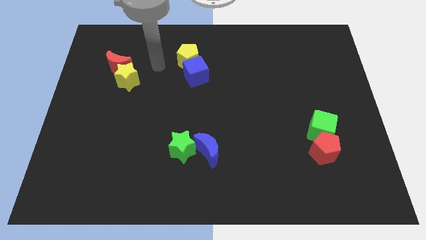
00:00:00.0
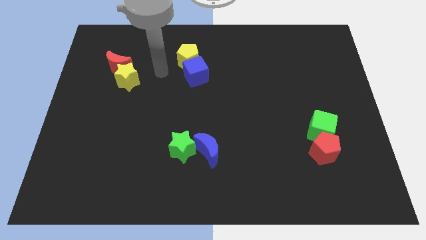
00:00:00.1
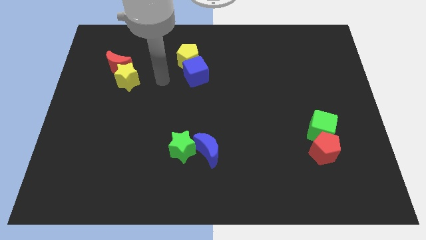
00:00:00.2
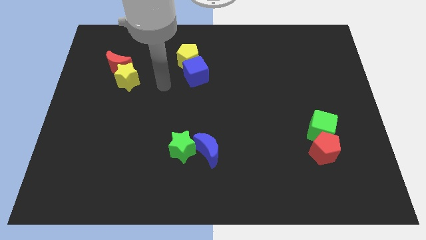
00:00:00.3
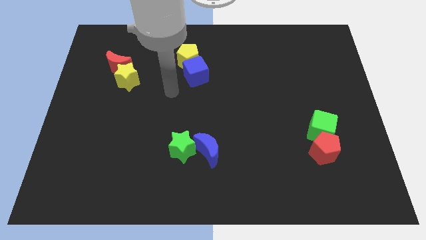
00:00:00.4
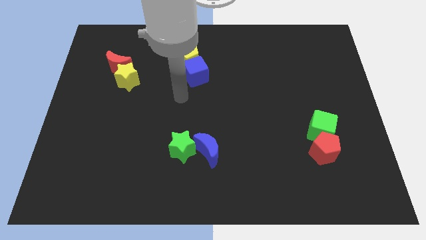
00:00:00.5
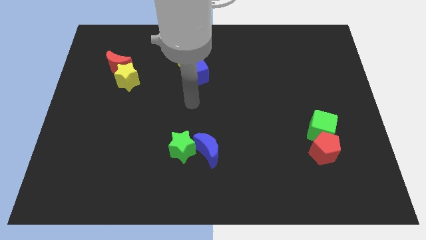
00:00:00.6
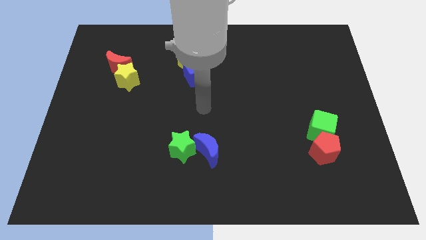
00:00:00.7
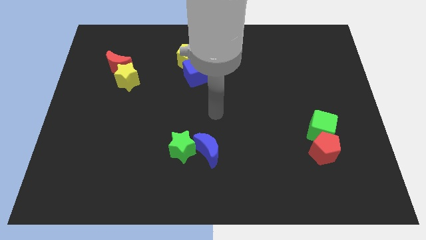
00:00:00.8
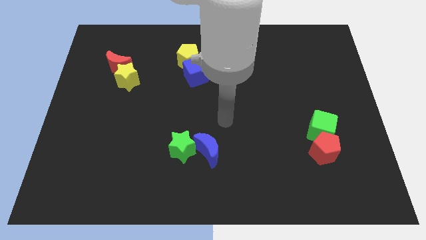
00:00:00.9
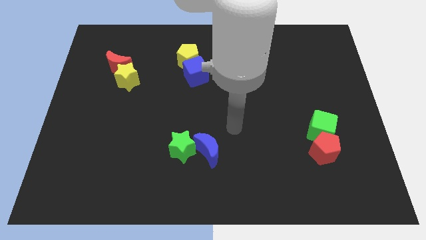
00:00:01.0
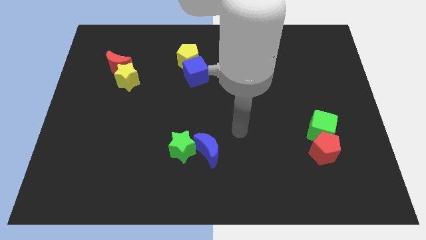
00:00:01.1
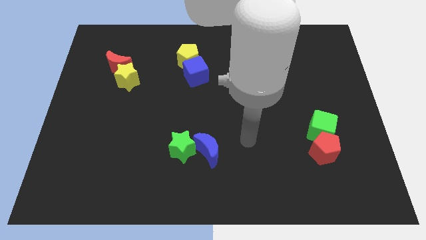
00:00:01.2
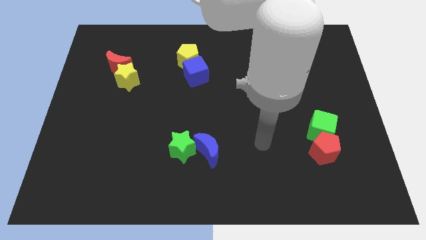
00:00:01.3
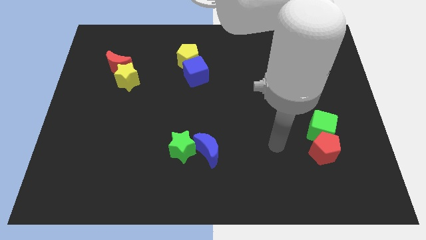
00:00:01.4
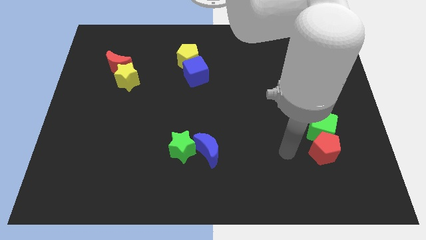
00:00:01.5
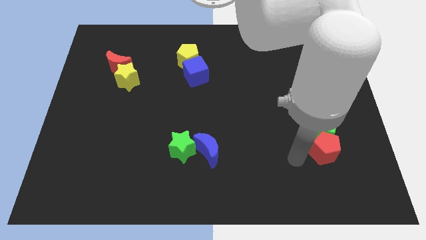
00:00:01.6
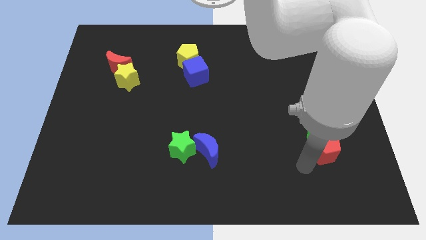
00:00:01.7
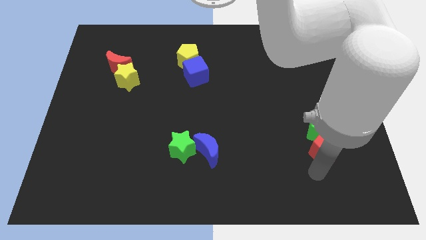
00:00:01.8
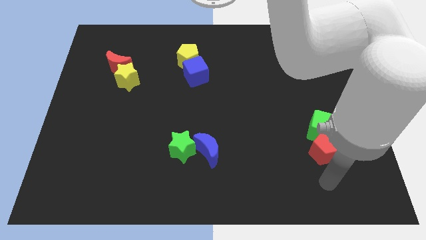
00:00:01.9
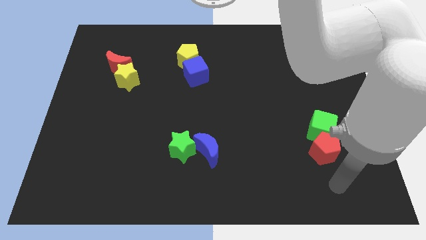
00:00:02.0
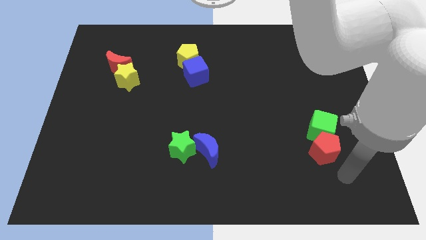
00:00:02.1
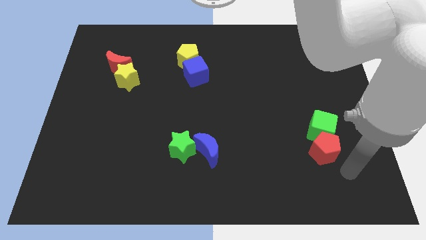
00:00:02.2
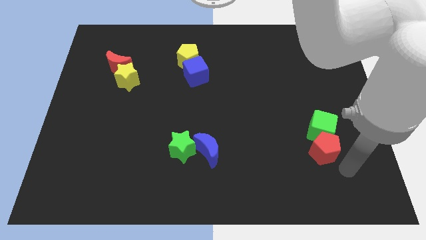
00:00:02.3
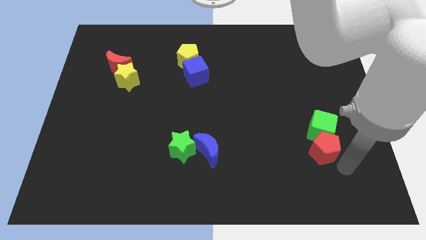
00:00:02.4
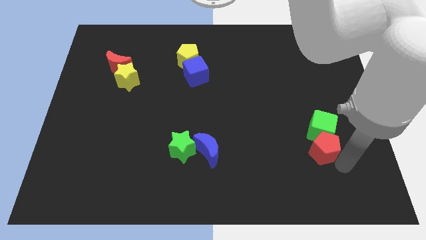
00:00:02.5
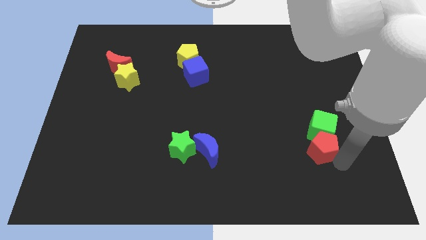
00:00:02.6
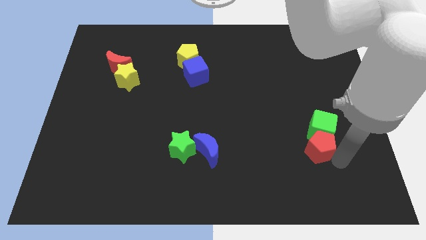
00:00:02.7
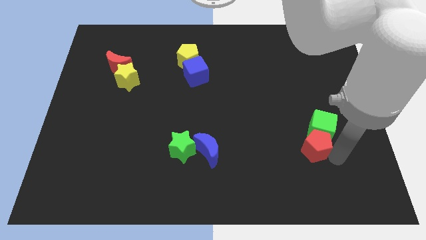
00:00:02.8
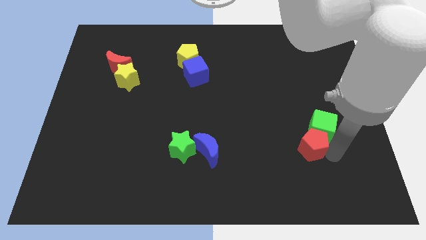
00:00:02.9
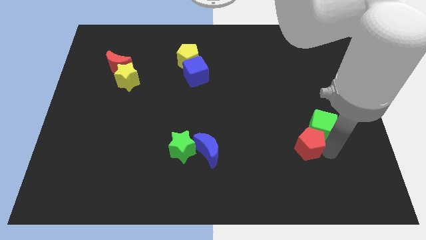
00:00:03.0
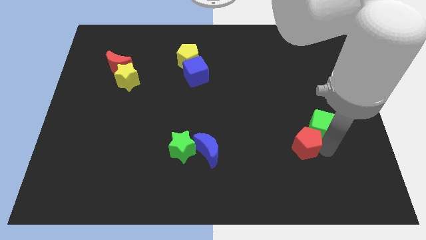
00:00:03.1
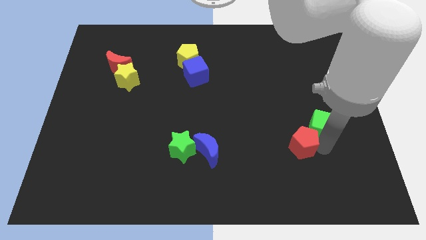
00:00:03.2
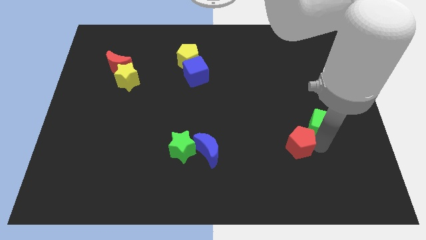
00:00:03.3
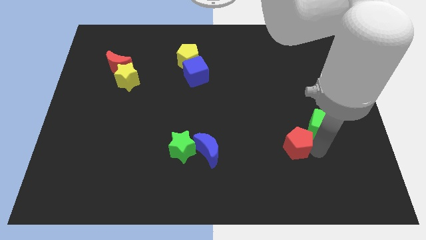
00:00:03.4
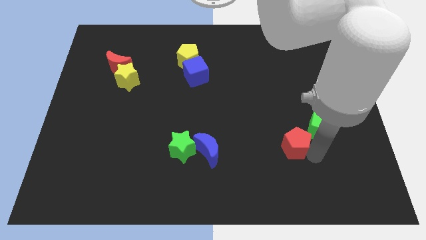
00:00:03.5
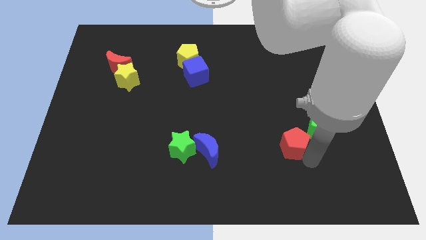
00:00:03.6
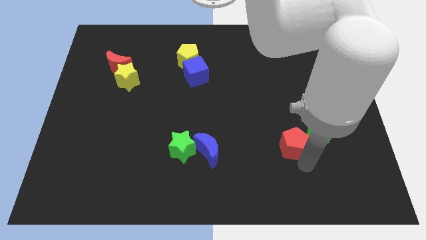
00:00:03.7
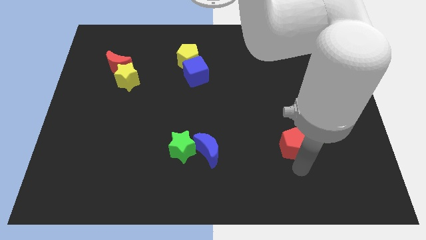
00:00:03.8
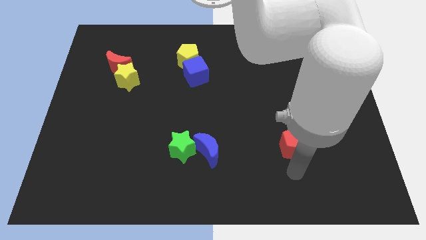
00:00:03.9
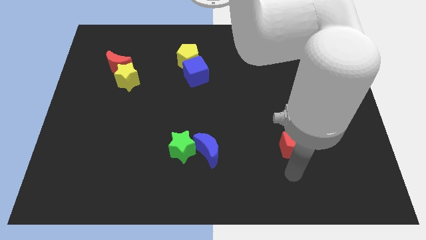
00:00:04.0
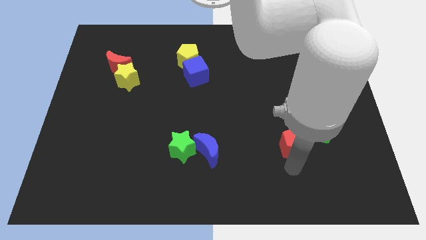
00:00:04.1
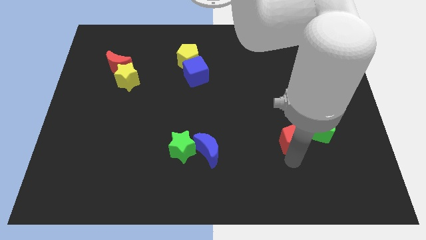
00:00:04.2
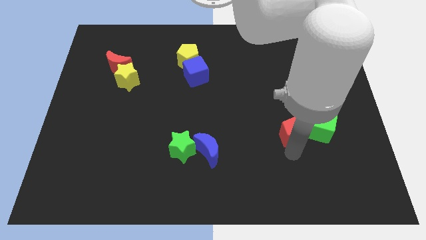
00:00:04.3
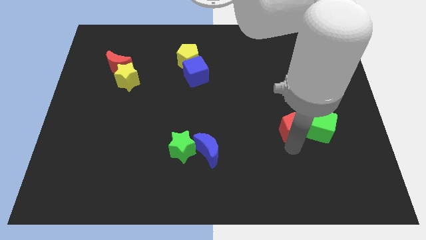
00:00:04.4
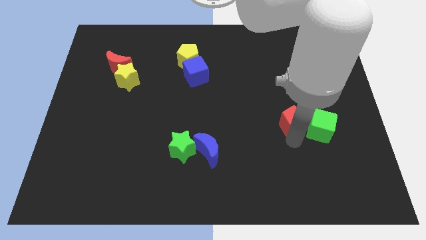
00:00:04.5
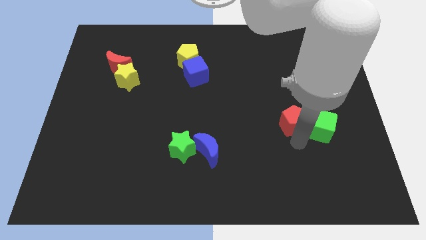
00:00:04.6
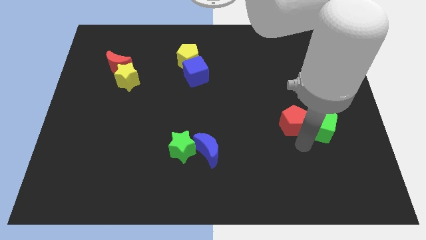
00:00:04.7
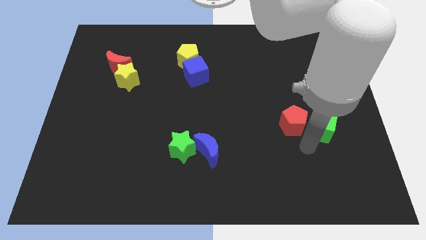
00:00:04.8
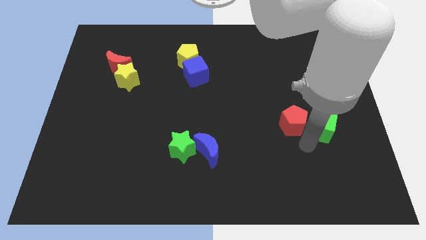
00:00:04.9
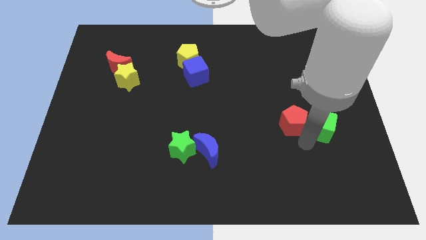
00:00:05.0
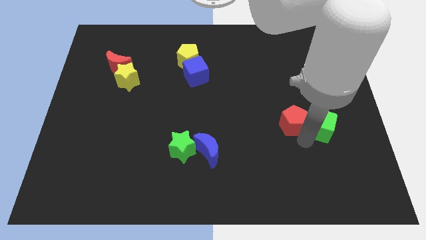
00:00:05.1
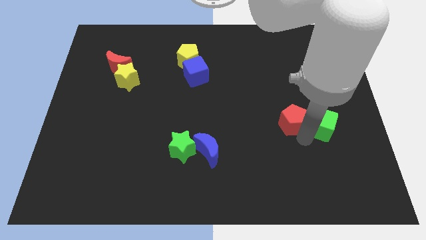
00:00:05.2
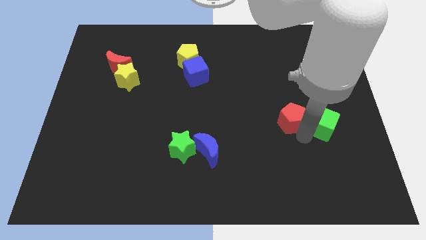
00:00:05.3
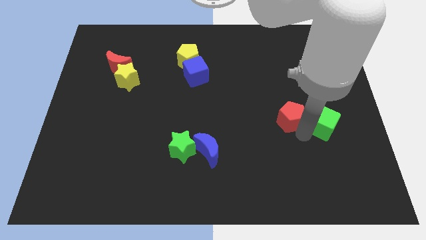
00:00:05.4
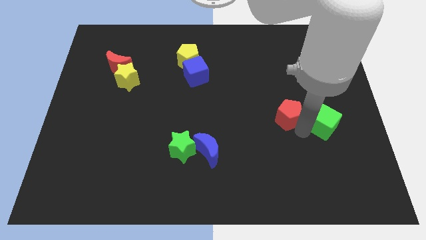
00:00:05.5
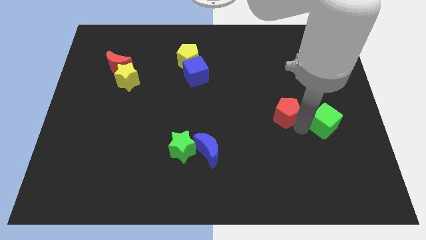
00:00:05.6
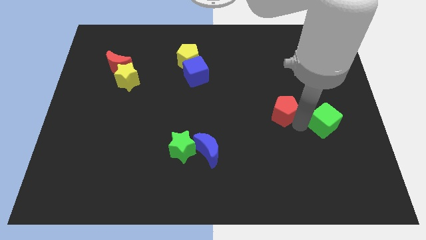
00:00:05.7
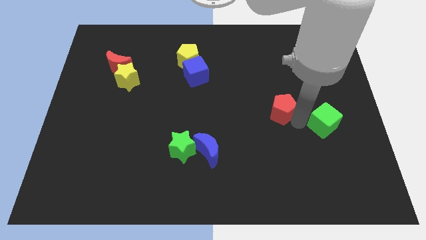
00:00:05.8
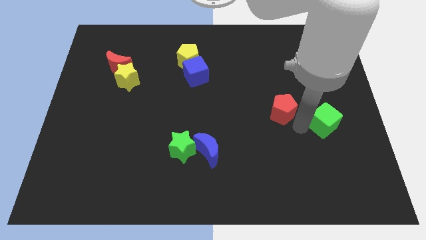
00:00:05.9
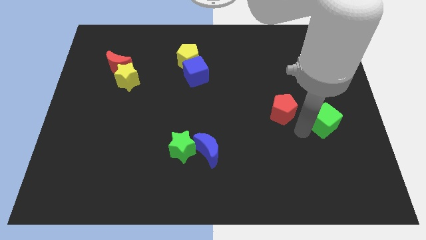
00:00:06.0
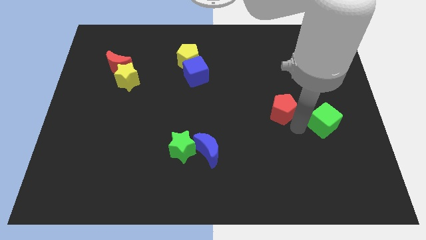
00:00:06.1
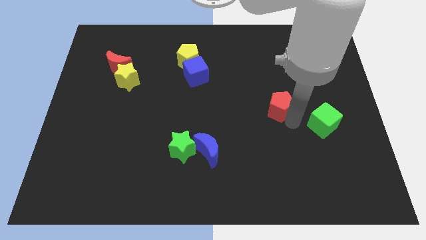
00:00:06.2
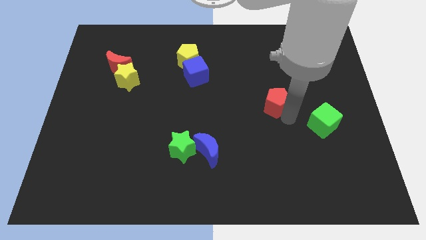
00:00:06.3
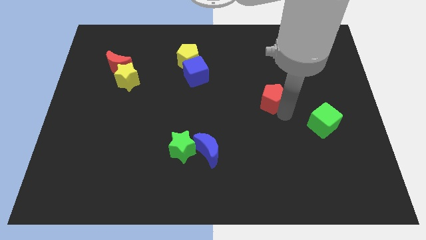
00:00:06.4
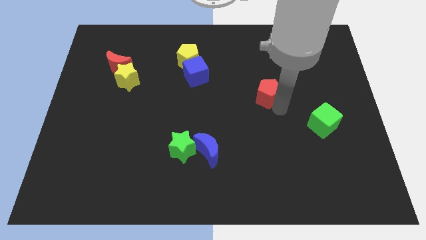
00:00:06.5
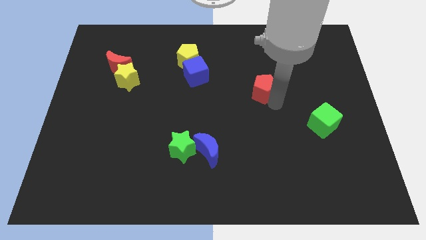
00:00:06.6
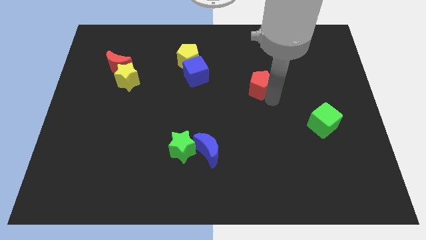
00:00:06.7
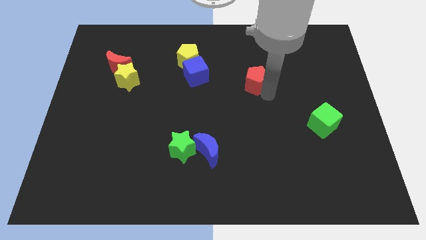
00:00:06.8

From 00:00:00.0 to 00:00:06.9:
slide the red pentagon to the right side of the blue cube
